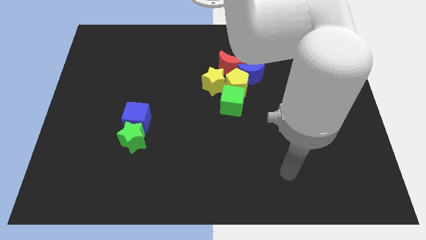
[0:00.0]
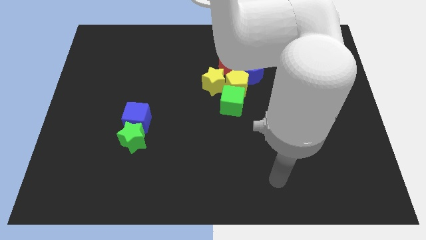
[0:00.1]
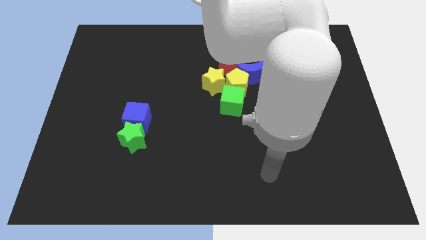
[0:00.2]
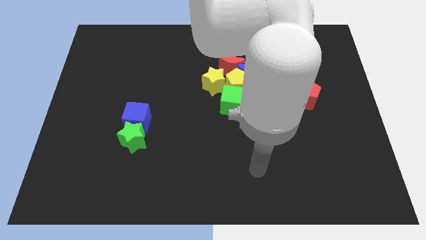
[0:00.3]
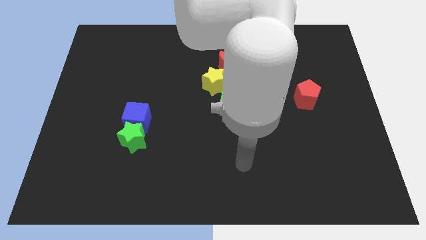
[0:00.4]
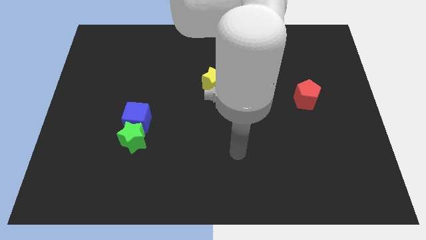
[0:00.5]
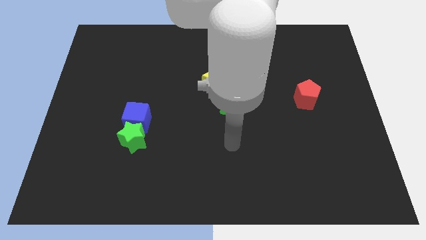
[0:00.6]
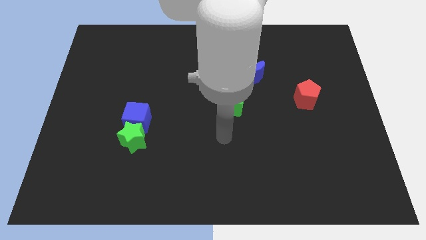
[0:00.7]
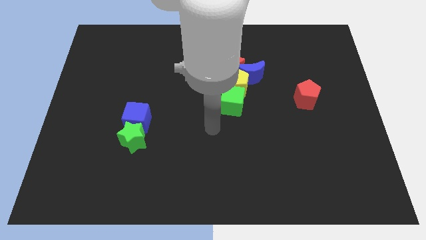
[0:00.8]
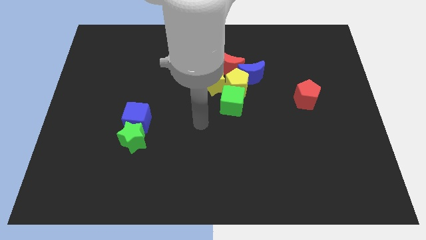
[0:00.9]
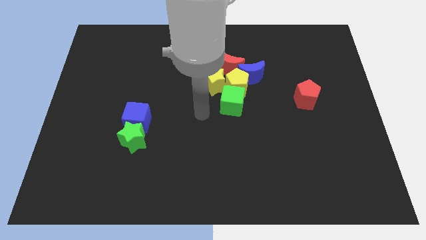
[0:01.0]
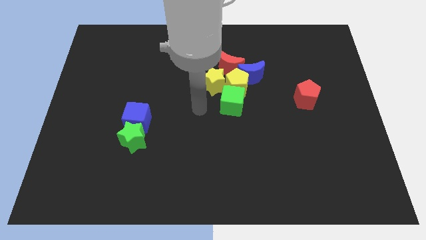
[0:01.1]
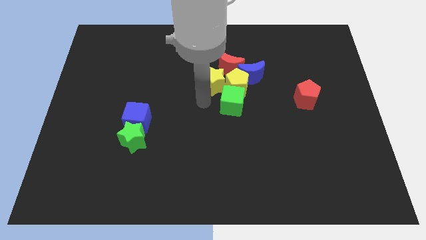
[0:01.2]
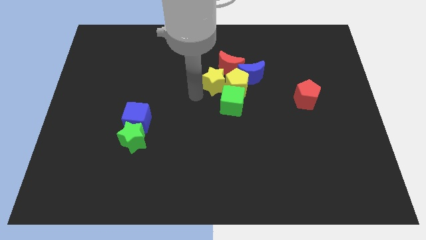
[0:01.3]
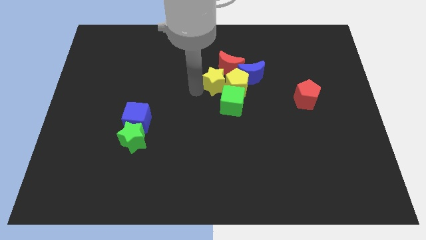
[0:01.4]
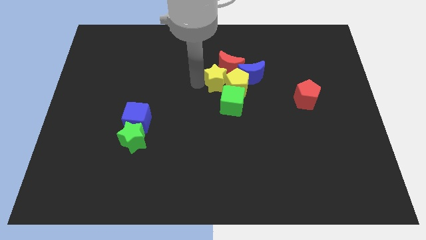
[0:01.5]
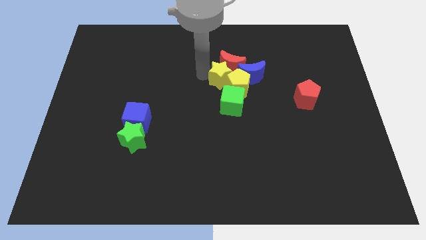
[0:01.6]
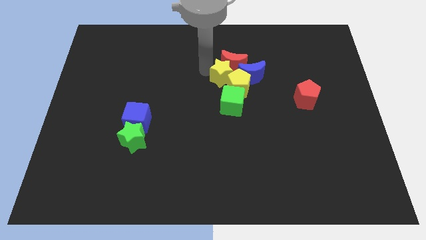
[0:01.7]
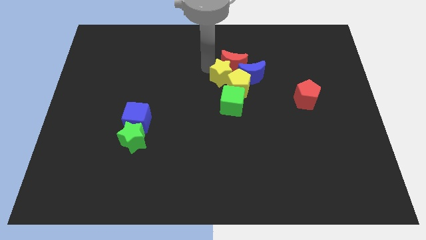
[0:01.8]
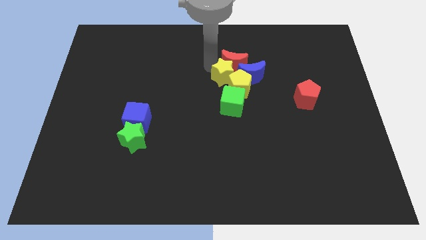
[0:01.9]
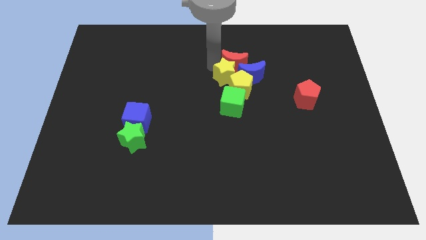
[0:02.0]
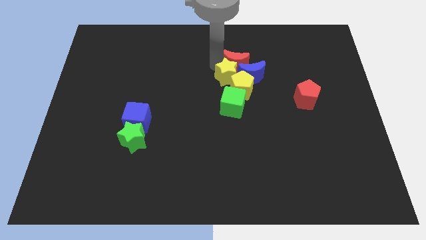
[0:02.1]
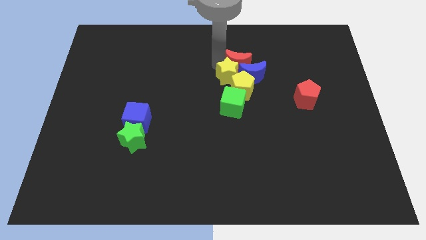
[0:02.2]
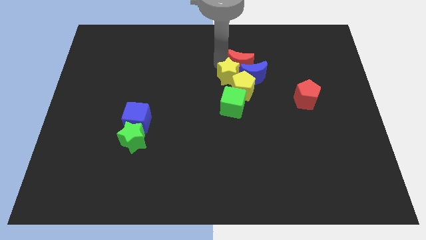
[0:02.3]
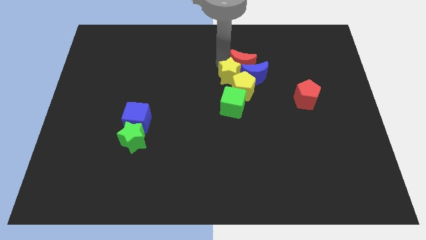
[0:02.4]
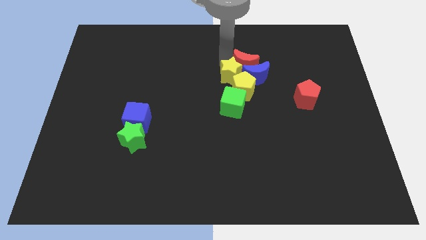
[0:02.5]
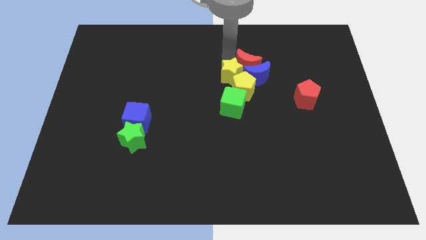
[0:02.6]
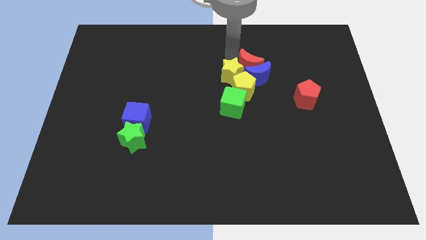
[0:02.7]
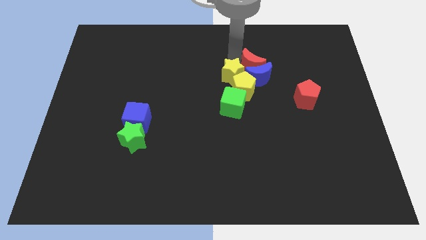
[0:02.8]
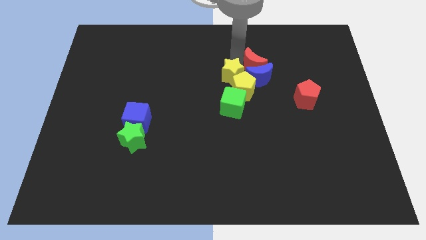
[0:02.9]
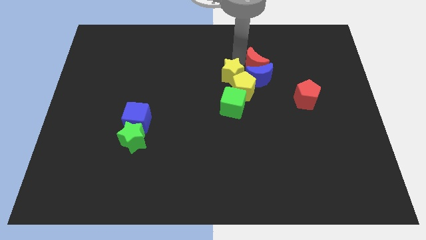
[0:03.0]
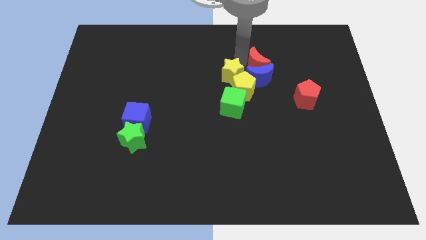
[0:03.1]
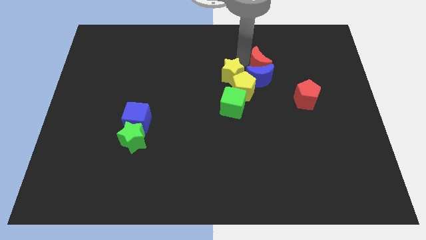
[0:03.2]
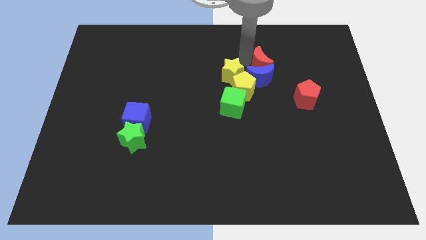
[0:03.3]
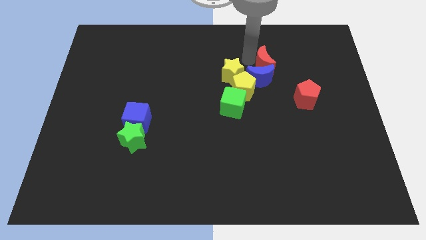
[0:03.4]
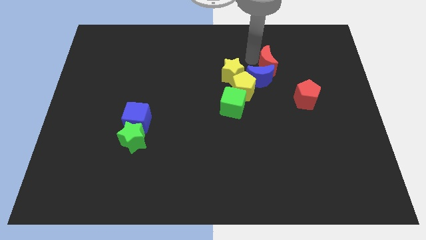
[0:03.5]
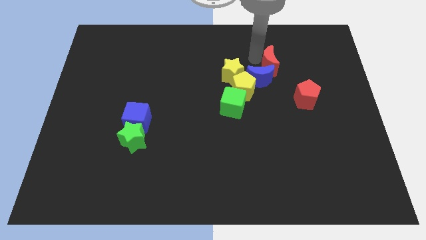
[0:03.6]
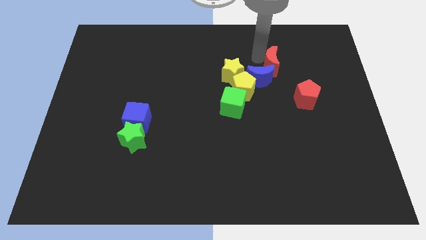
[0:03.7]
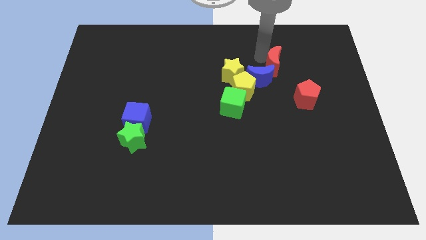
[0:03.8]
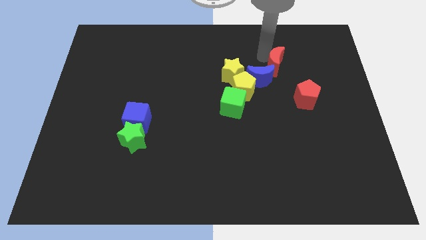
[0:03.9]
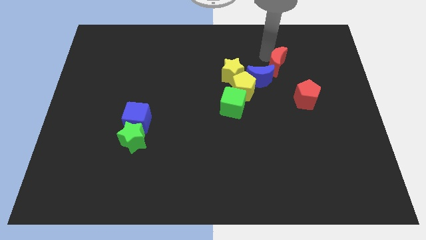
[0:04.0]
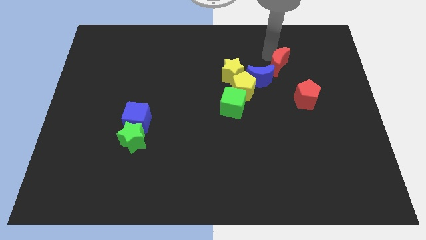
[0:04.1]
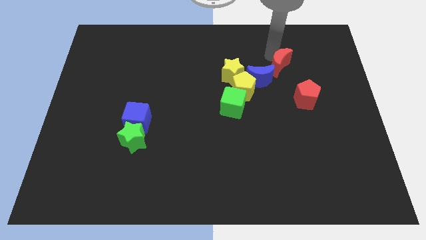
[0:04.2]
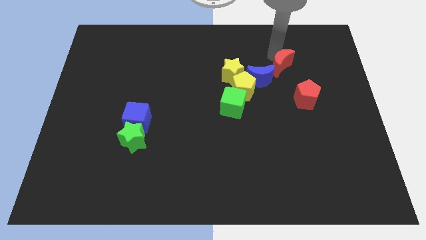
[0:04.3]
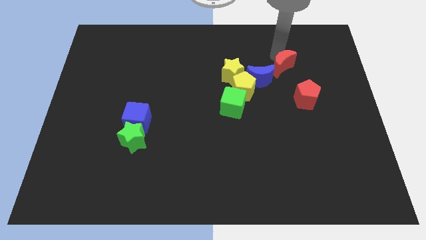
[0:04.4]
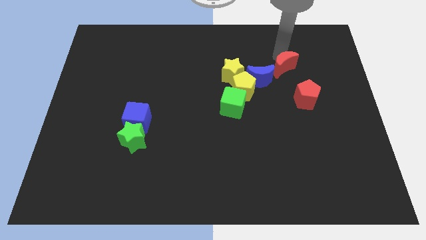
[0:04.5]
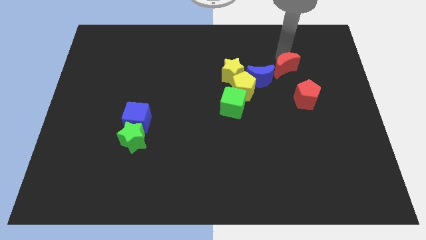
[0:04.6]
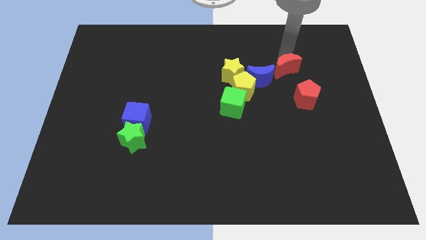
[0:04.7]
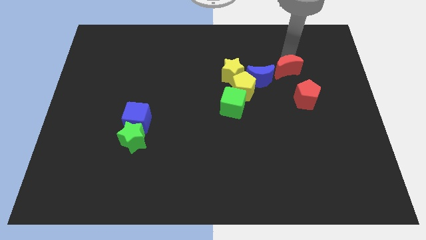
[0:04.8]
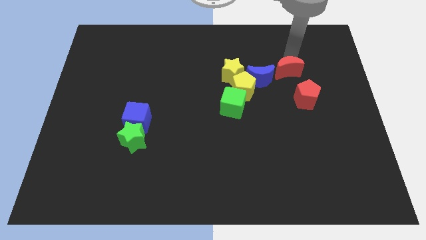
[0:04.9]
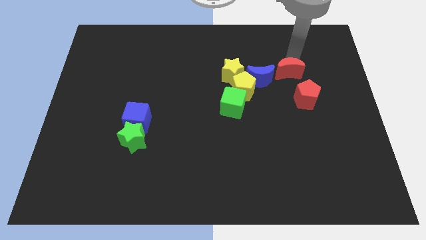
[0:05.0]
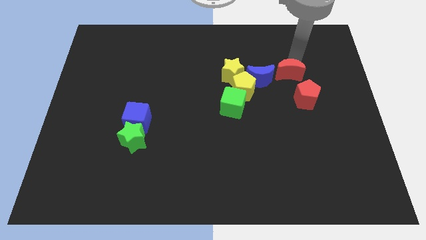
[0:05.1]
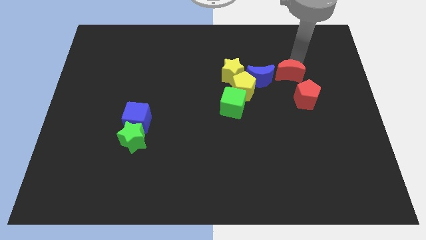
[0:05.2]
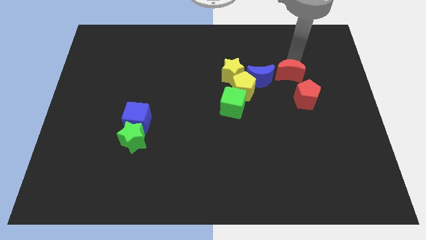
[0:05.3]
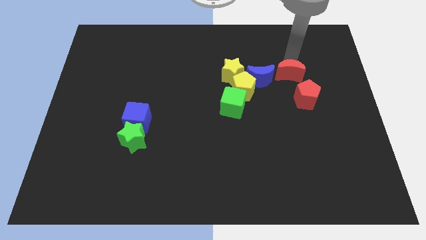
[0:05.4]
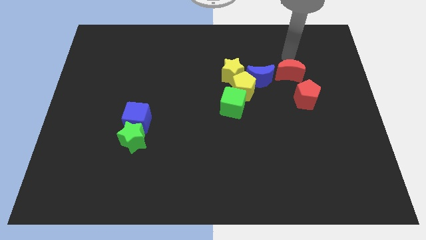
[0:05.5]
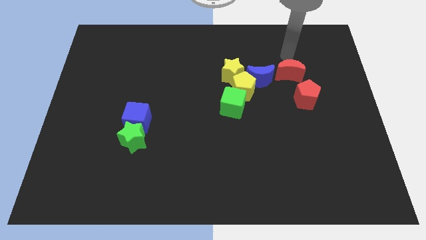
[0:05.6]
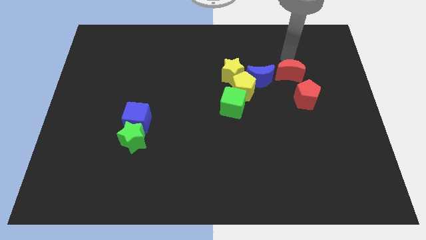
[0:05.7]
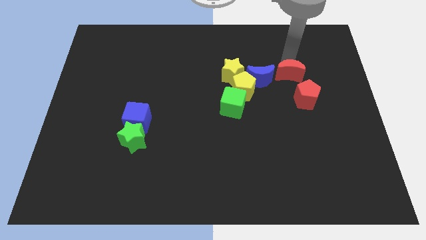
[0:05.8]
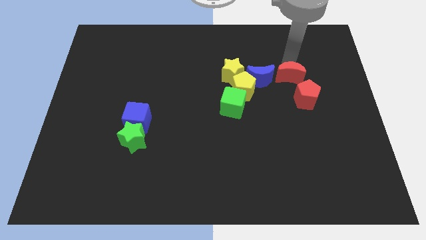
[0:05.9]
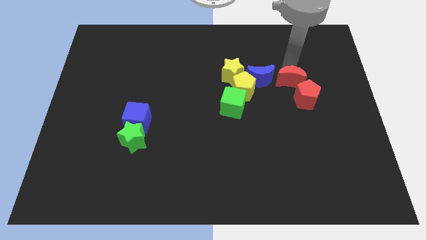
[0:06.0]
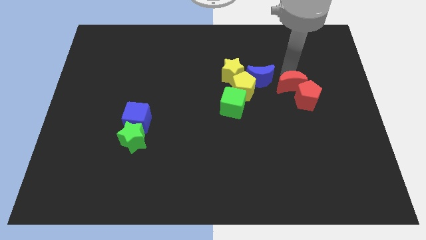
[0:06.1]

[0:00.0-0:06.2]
slide the red moon to the red pentagon

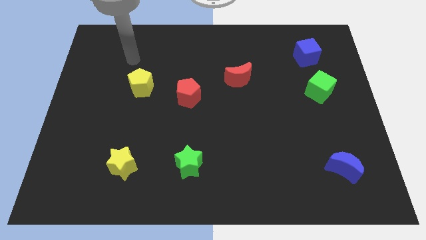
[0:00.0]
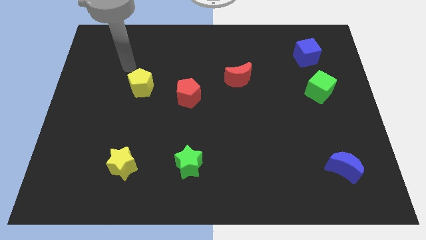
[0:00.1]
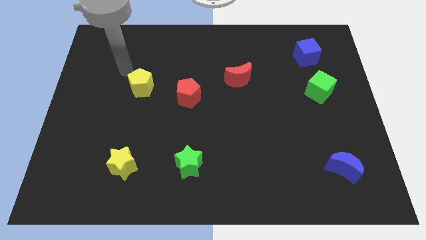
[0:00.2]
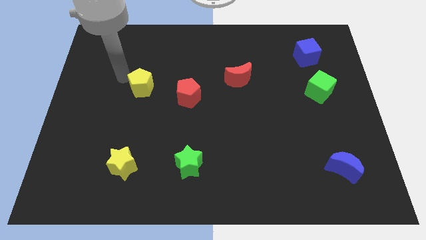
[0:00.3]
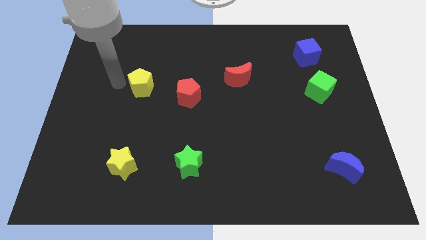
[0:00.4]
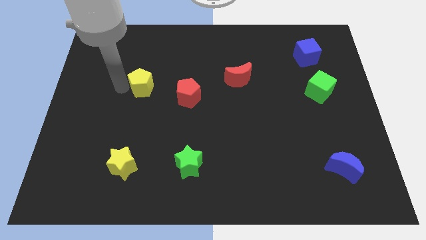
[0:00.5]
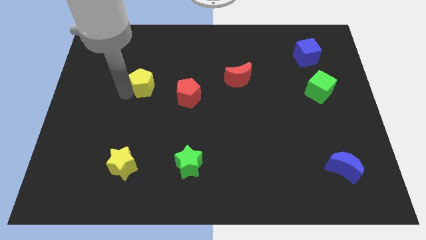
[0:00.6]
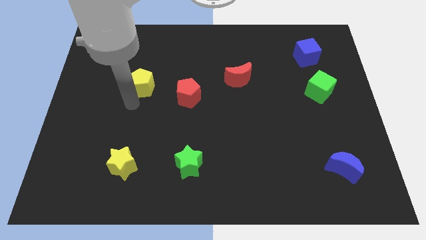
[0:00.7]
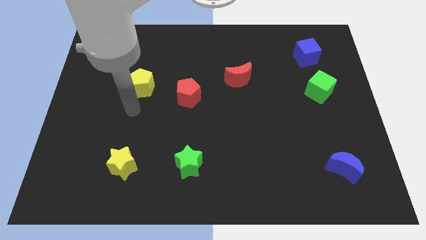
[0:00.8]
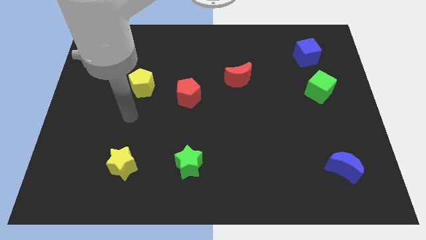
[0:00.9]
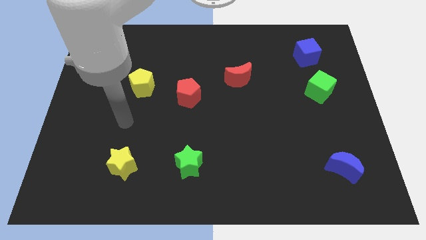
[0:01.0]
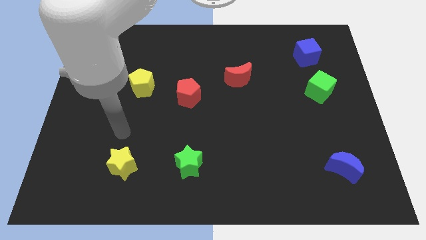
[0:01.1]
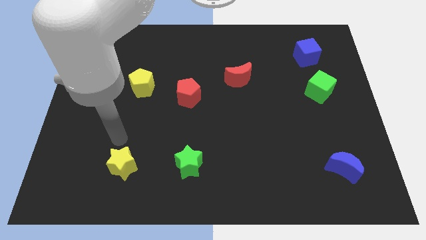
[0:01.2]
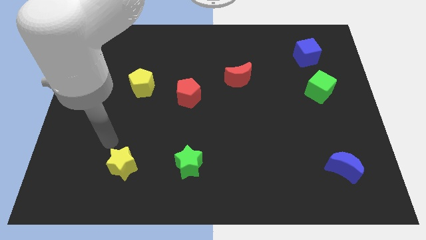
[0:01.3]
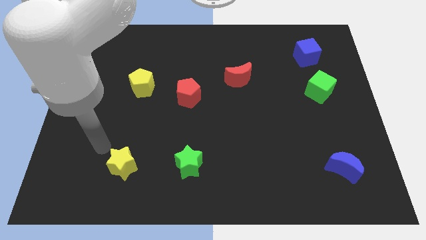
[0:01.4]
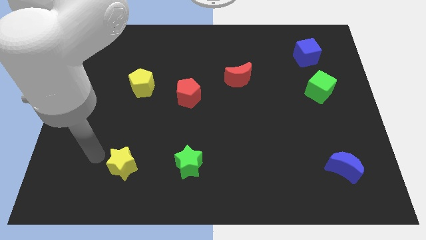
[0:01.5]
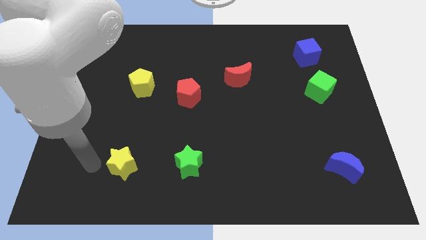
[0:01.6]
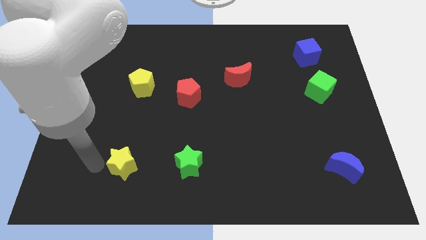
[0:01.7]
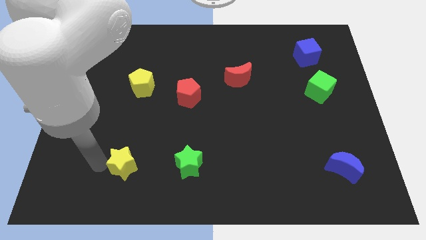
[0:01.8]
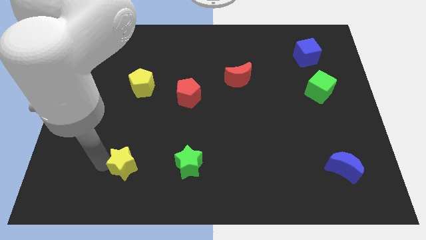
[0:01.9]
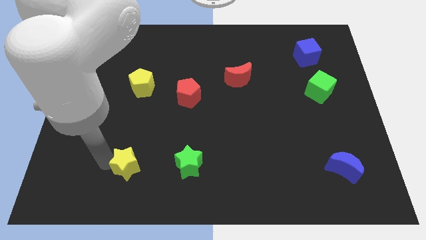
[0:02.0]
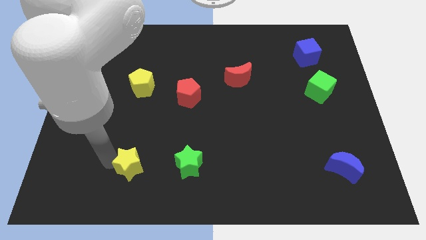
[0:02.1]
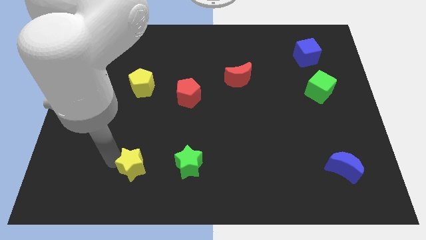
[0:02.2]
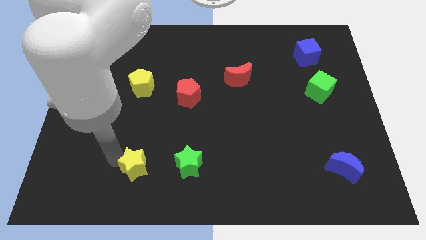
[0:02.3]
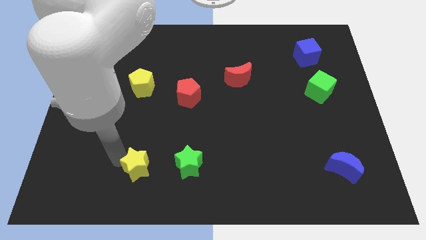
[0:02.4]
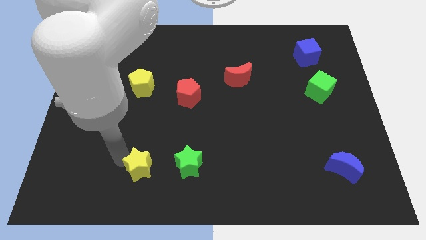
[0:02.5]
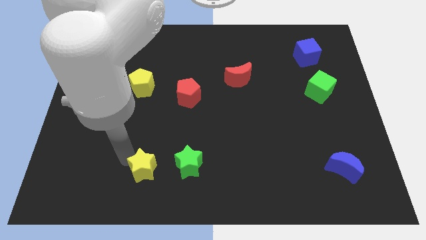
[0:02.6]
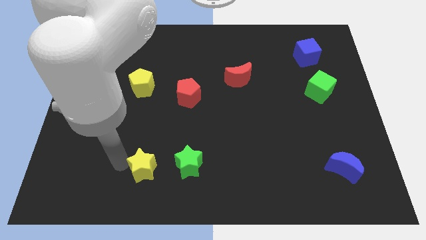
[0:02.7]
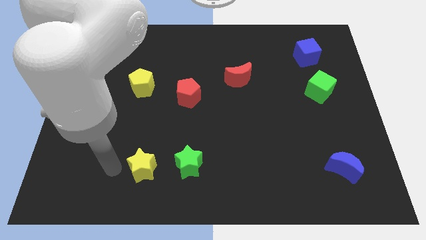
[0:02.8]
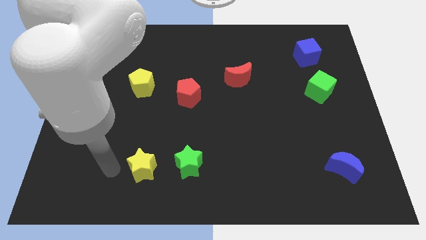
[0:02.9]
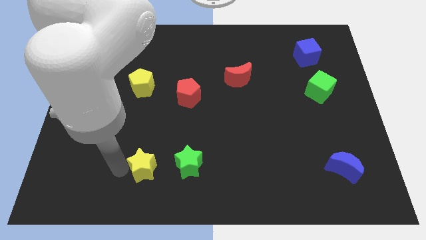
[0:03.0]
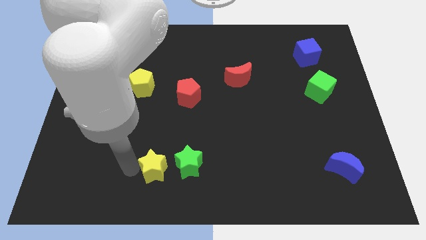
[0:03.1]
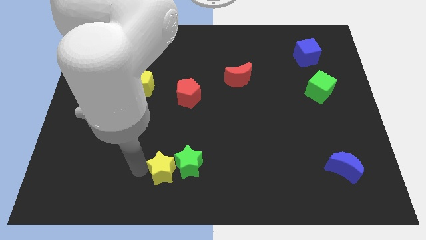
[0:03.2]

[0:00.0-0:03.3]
slide the yellow star towards the green star
